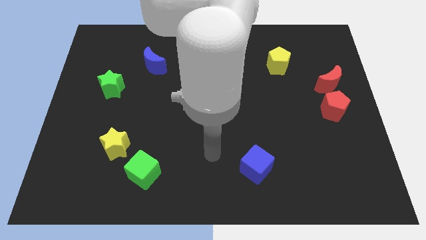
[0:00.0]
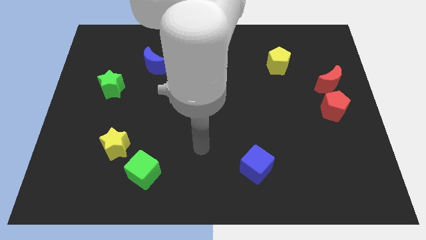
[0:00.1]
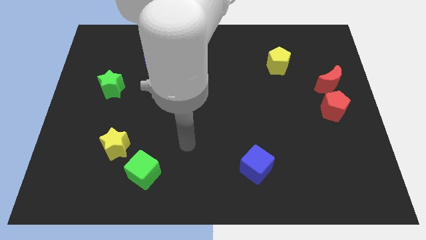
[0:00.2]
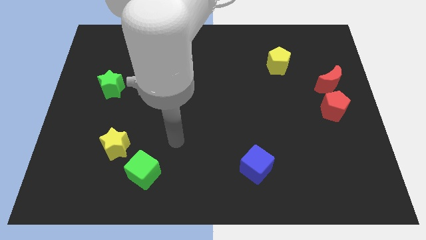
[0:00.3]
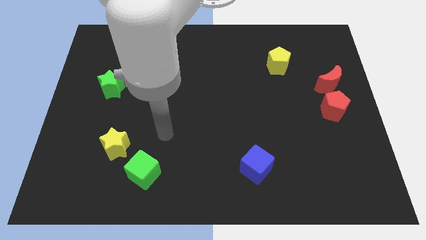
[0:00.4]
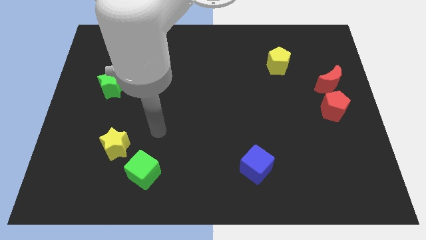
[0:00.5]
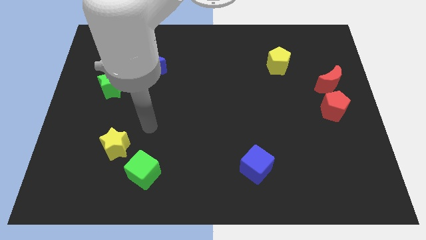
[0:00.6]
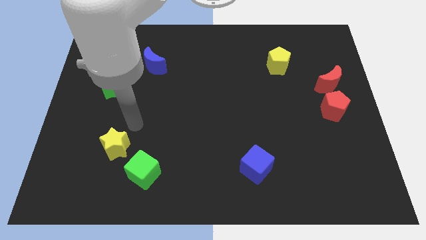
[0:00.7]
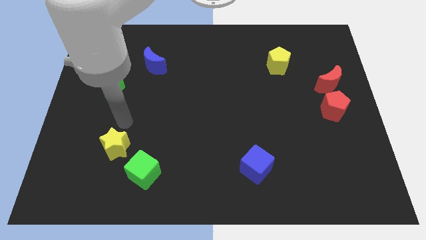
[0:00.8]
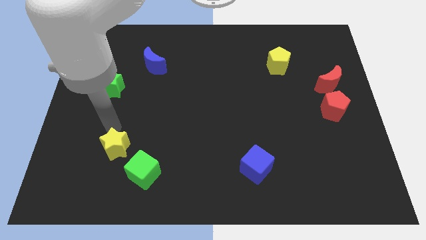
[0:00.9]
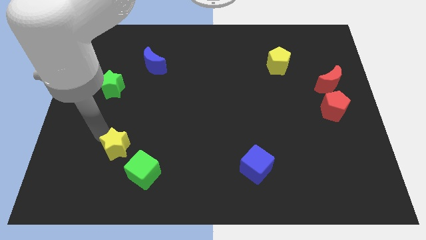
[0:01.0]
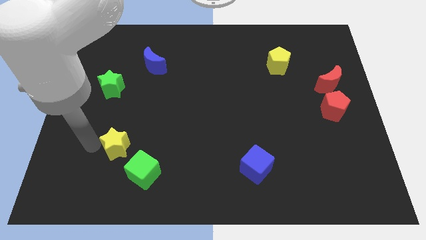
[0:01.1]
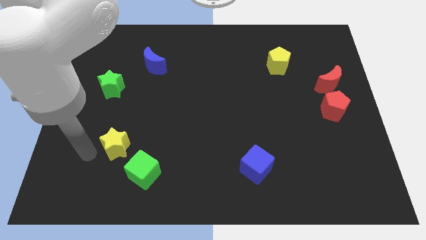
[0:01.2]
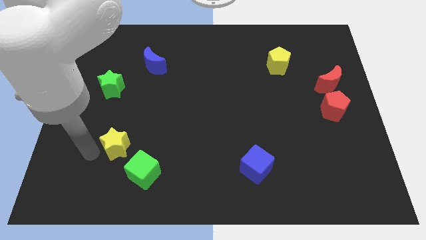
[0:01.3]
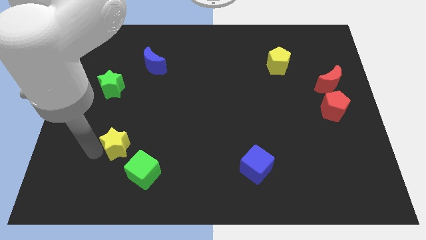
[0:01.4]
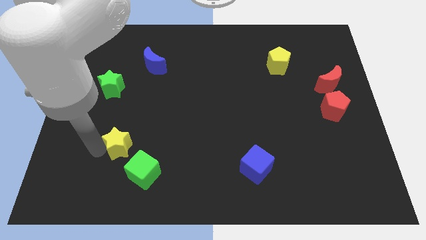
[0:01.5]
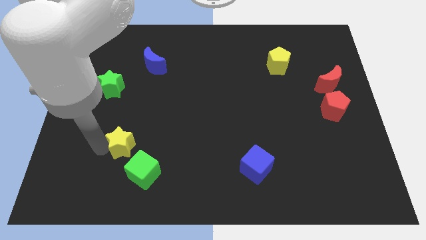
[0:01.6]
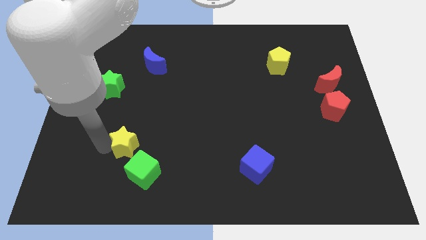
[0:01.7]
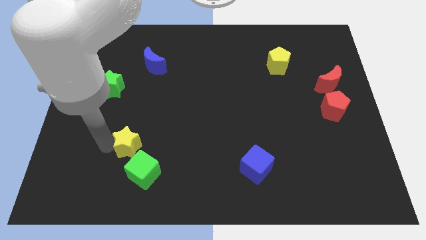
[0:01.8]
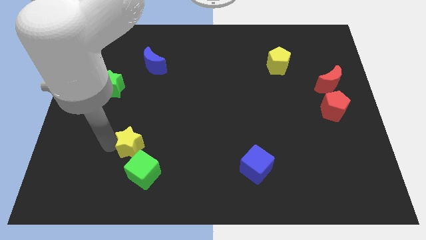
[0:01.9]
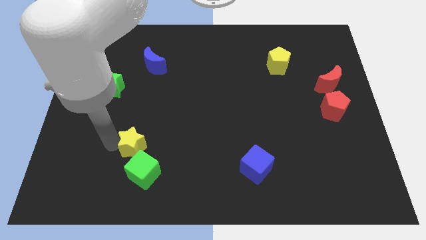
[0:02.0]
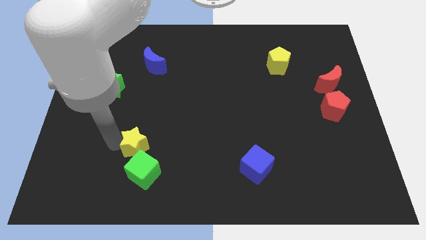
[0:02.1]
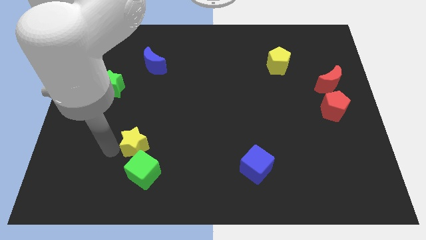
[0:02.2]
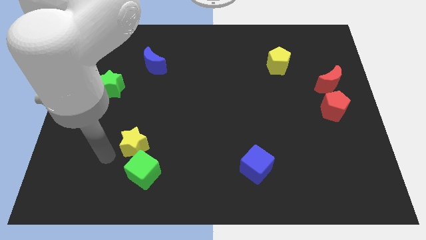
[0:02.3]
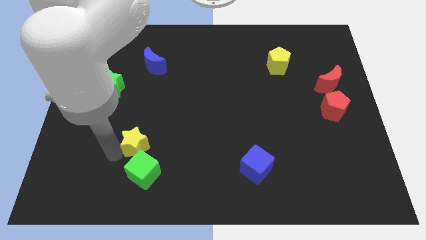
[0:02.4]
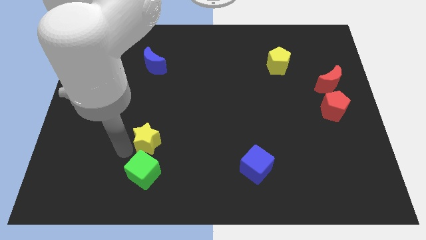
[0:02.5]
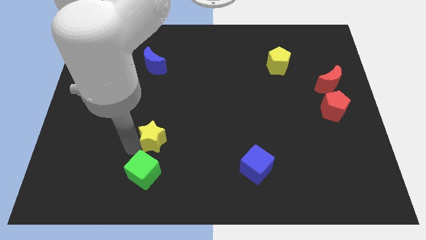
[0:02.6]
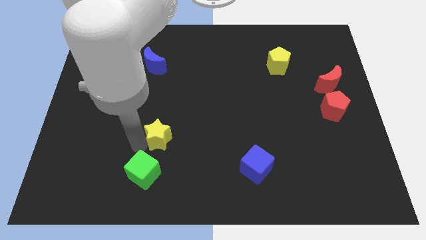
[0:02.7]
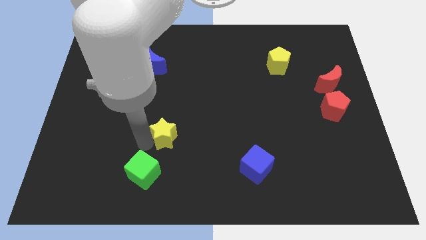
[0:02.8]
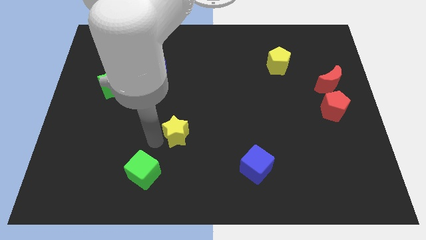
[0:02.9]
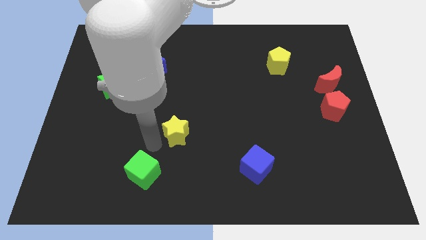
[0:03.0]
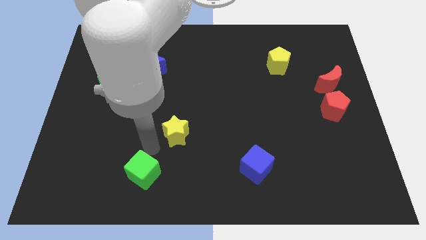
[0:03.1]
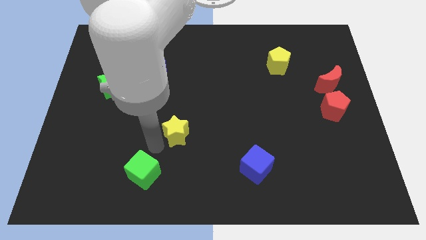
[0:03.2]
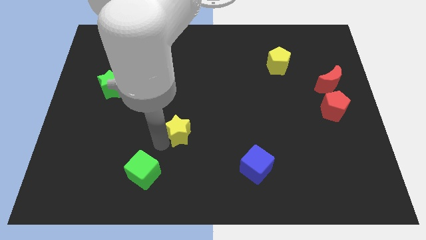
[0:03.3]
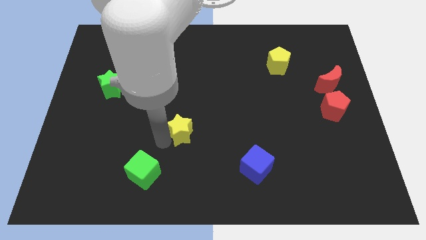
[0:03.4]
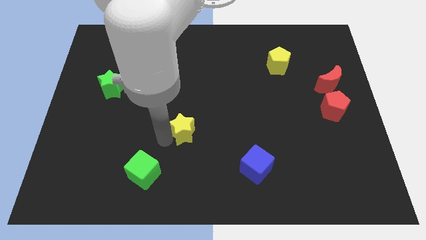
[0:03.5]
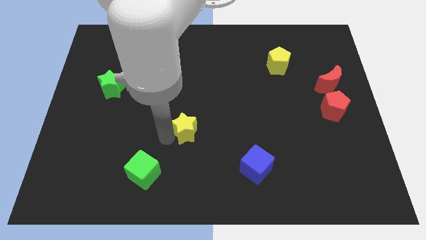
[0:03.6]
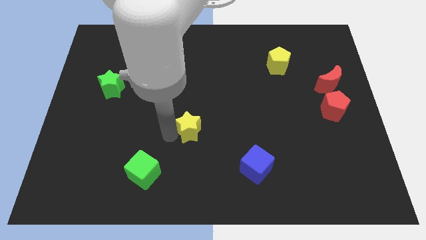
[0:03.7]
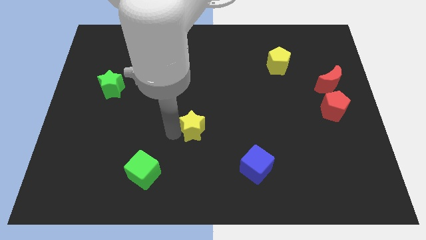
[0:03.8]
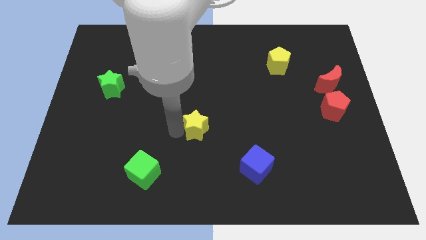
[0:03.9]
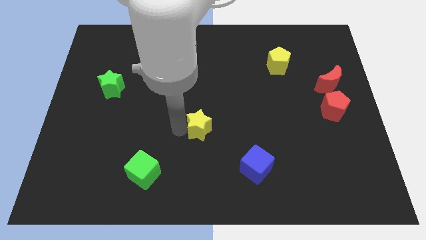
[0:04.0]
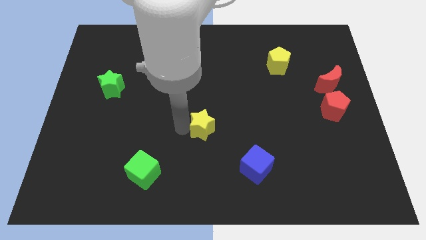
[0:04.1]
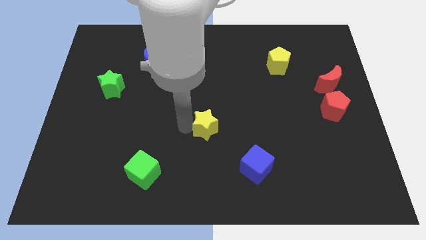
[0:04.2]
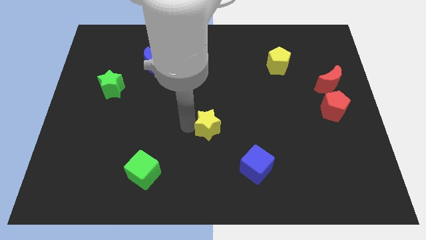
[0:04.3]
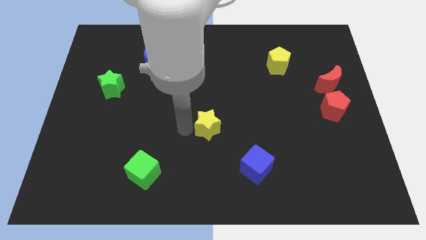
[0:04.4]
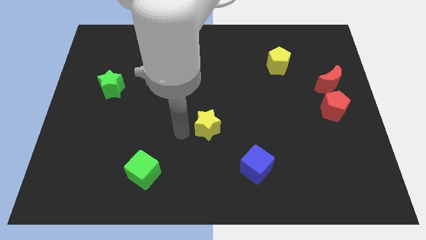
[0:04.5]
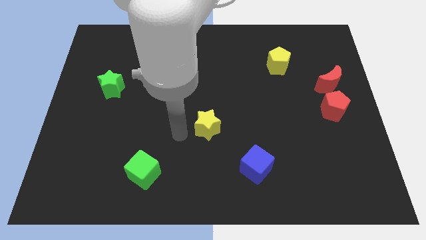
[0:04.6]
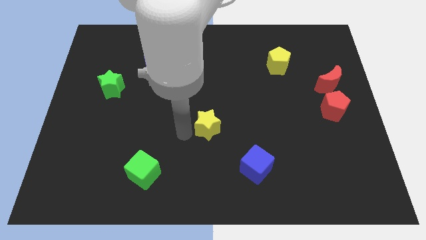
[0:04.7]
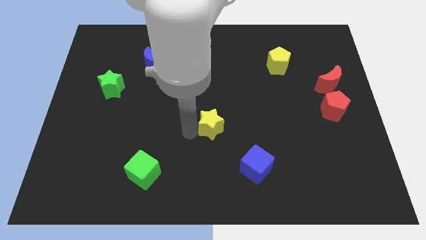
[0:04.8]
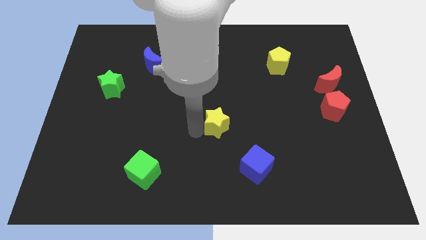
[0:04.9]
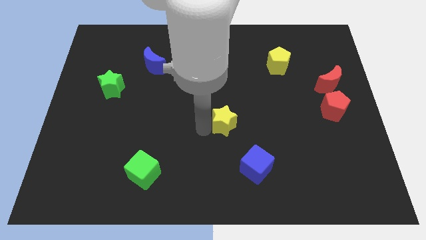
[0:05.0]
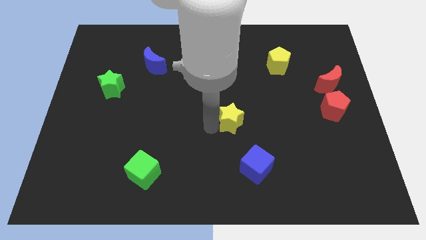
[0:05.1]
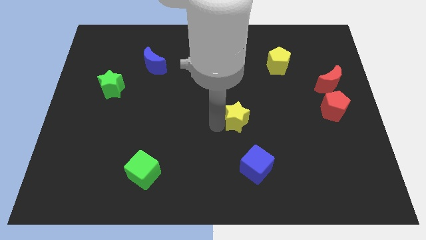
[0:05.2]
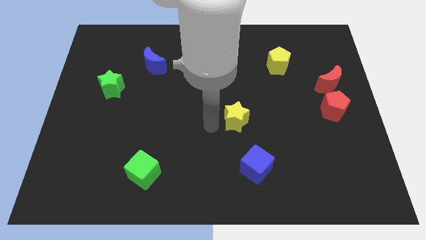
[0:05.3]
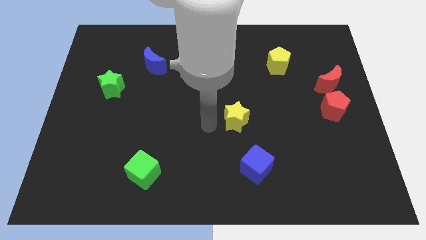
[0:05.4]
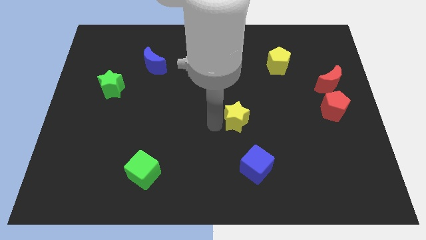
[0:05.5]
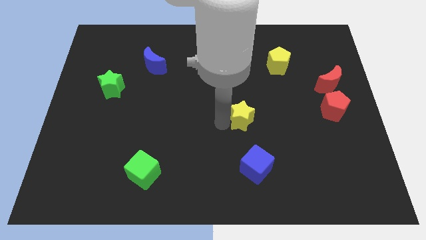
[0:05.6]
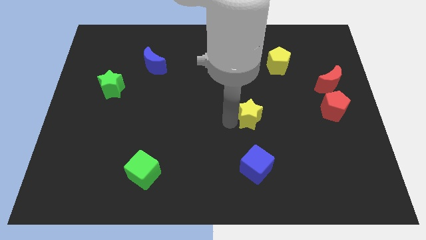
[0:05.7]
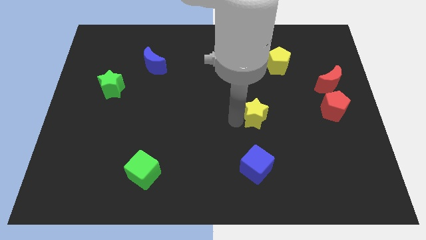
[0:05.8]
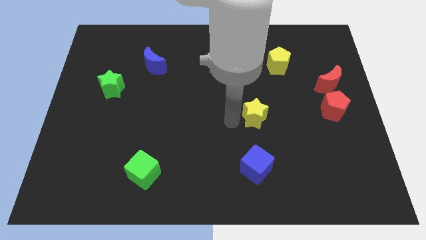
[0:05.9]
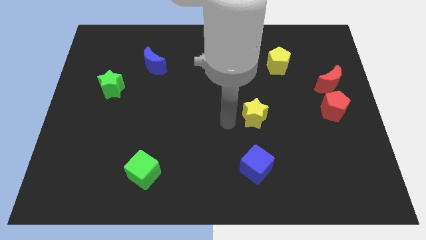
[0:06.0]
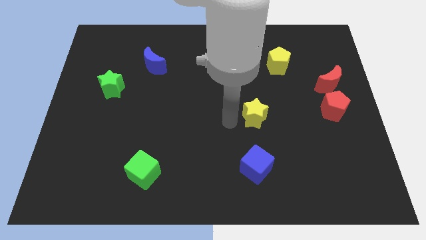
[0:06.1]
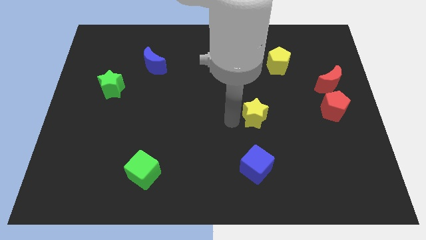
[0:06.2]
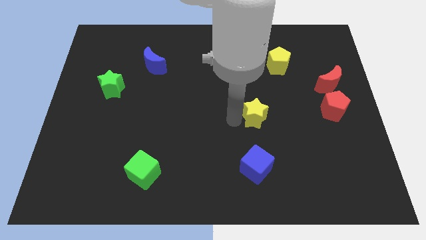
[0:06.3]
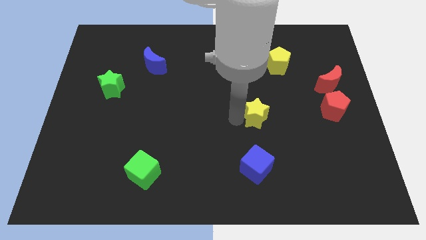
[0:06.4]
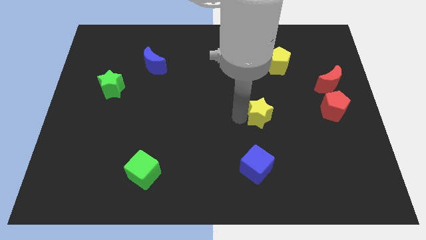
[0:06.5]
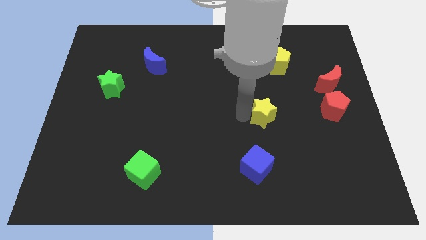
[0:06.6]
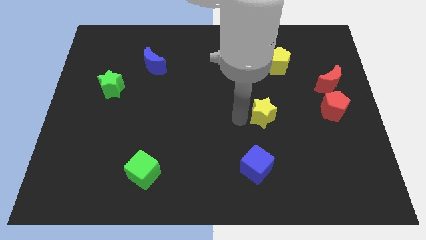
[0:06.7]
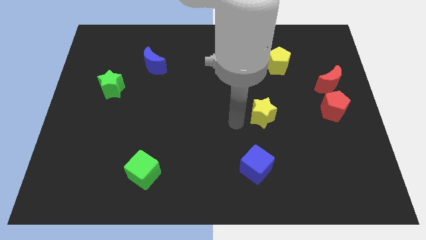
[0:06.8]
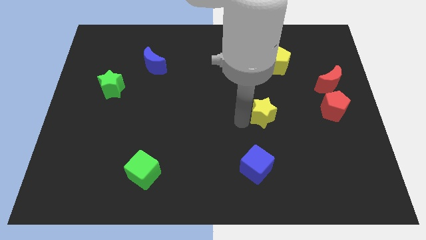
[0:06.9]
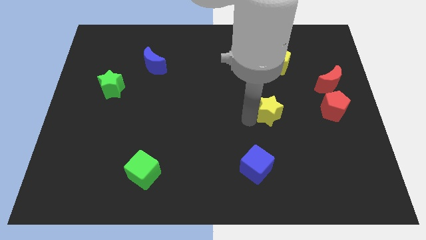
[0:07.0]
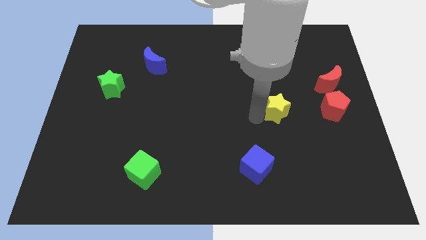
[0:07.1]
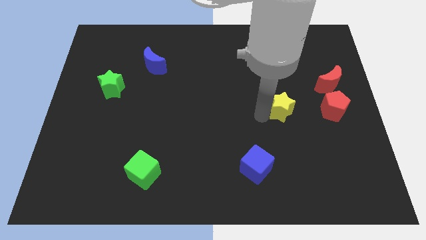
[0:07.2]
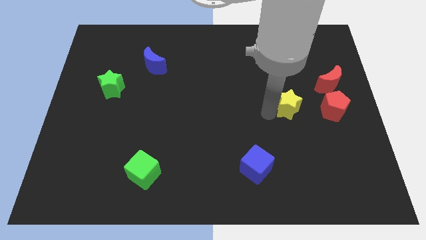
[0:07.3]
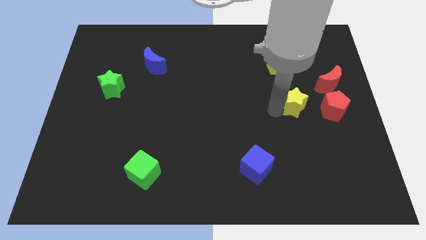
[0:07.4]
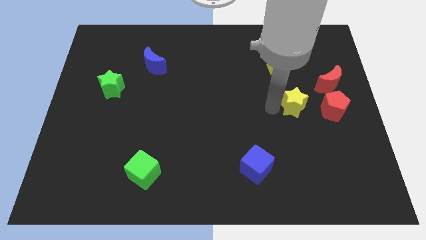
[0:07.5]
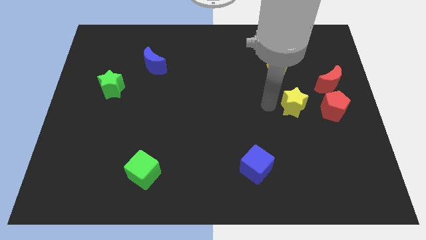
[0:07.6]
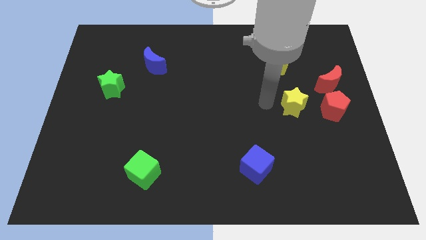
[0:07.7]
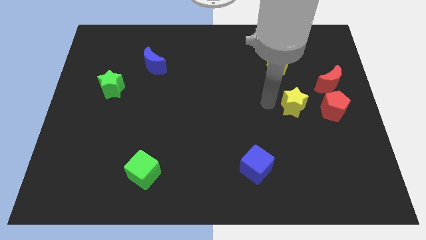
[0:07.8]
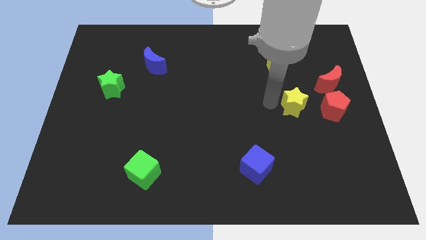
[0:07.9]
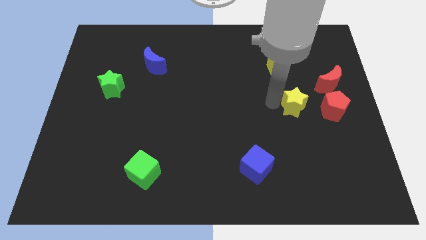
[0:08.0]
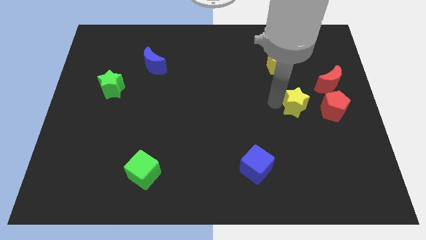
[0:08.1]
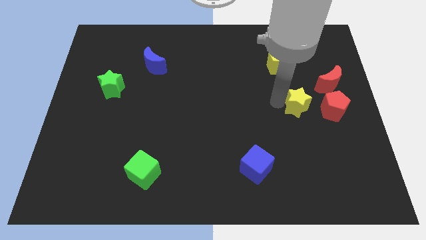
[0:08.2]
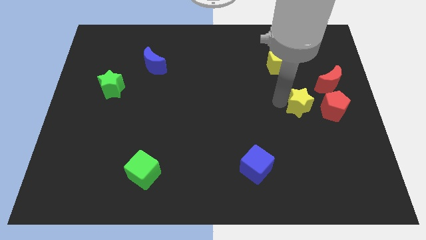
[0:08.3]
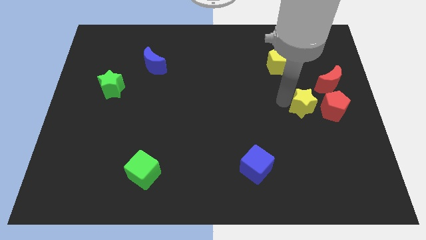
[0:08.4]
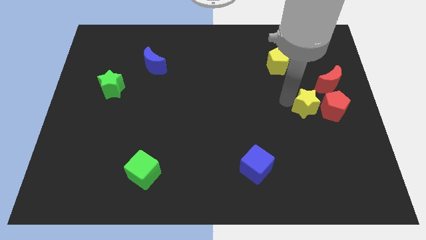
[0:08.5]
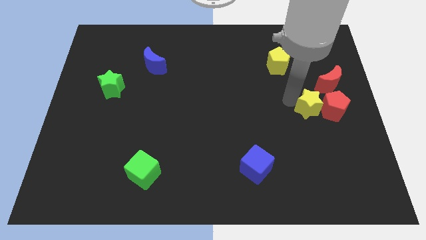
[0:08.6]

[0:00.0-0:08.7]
push the yellow star towards the red pentagon
